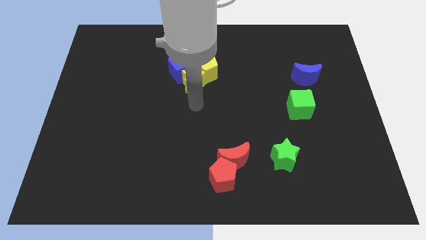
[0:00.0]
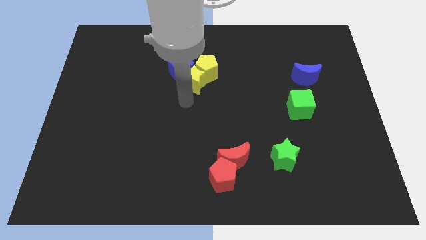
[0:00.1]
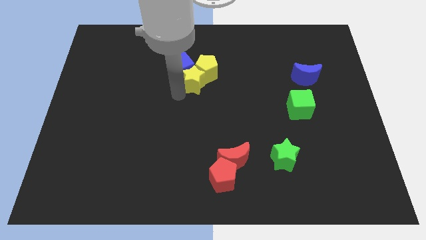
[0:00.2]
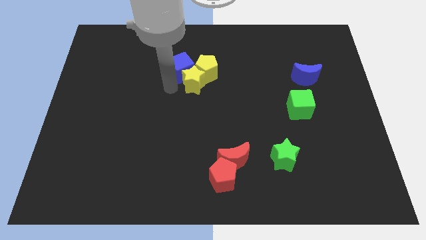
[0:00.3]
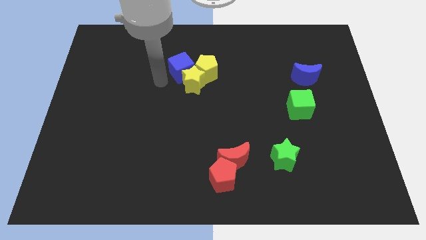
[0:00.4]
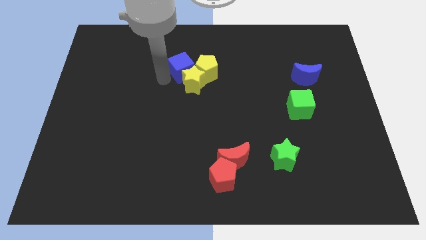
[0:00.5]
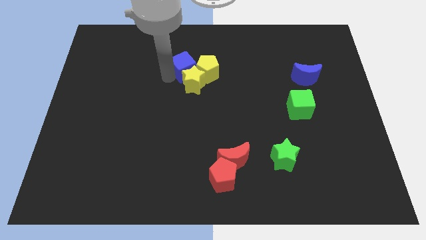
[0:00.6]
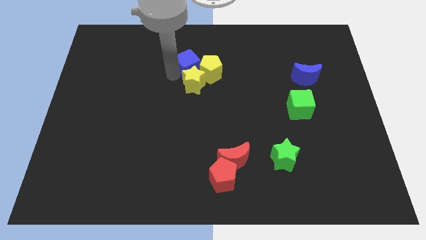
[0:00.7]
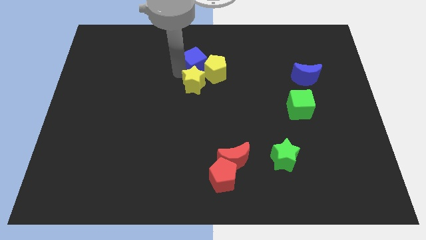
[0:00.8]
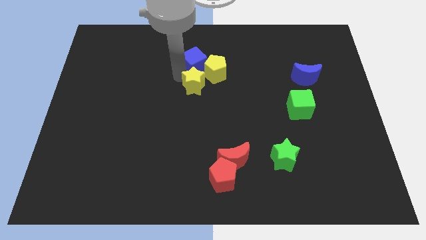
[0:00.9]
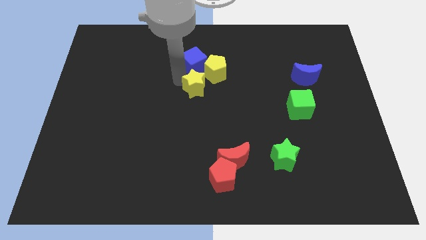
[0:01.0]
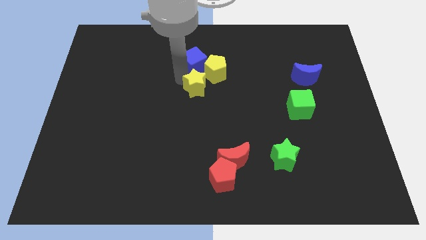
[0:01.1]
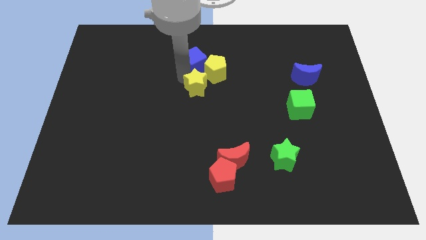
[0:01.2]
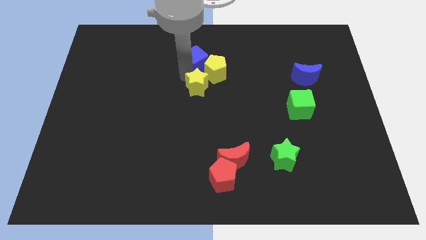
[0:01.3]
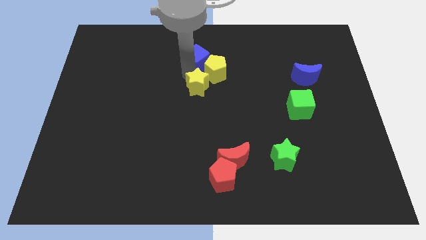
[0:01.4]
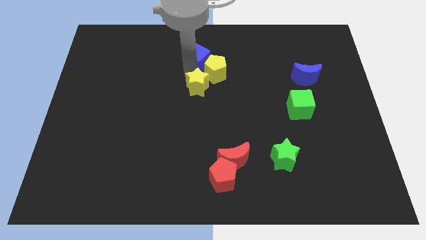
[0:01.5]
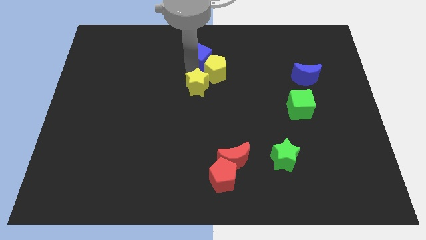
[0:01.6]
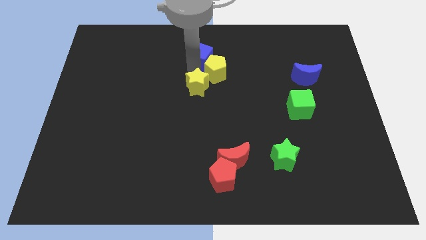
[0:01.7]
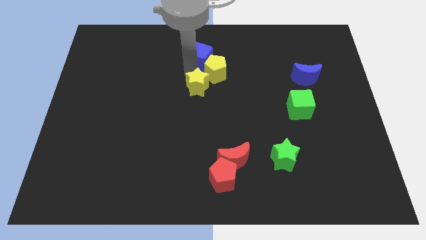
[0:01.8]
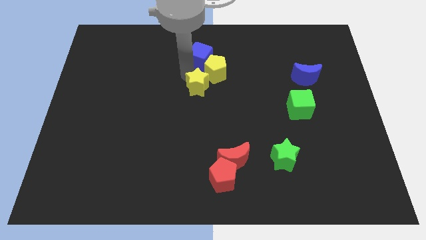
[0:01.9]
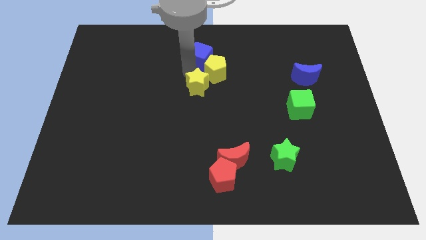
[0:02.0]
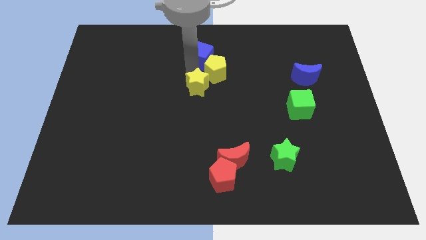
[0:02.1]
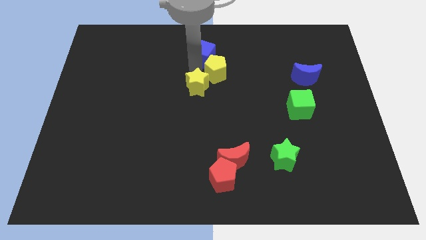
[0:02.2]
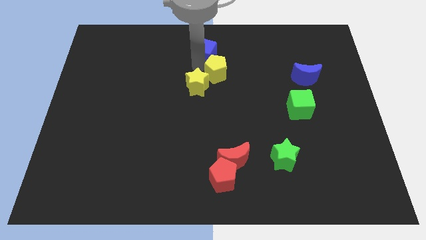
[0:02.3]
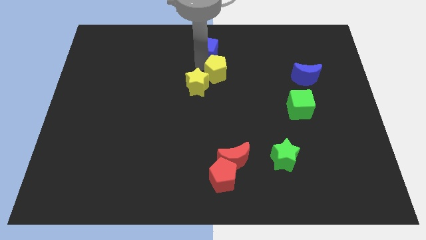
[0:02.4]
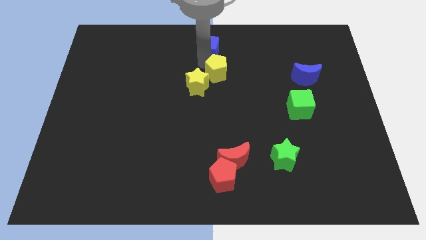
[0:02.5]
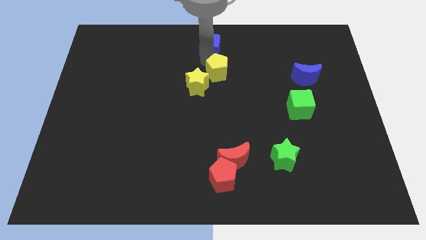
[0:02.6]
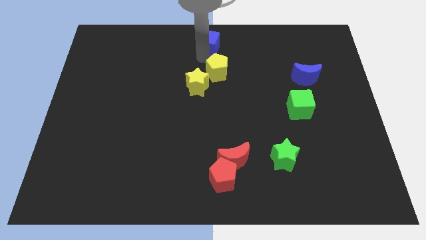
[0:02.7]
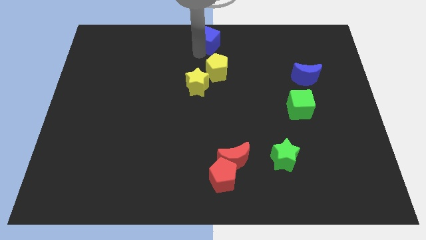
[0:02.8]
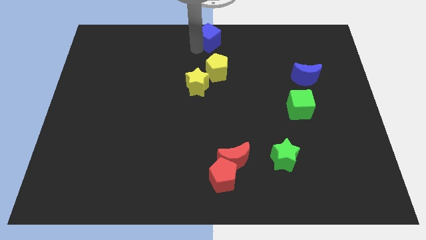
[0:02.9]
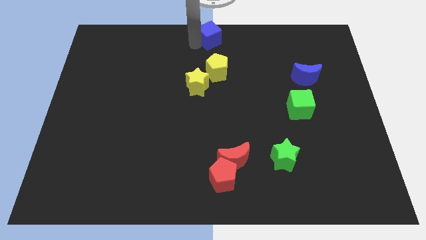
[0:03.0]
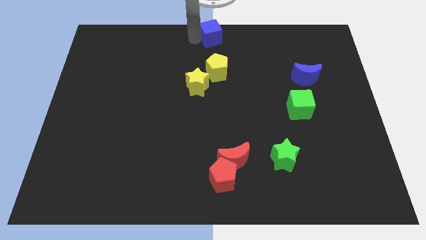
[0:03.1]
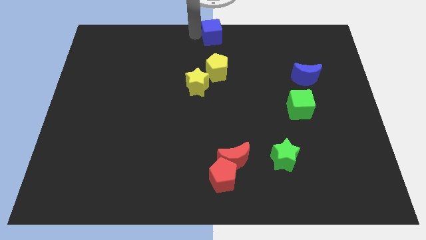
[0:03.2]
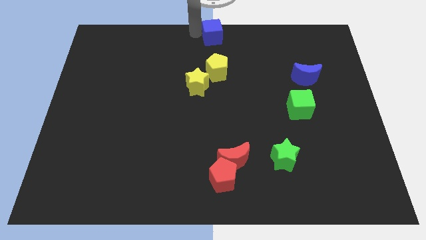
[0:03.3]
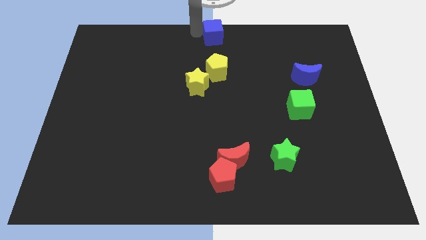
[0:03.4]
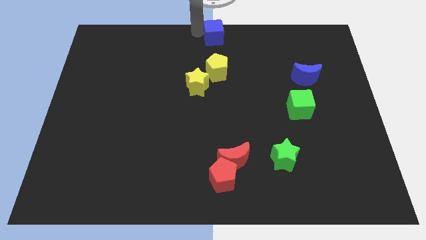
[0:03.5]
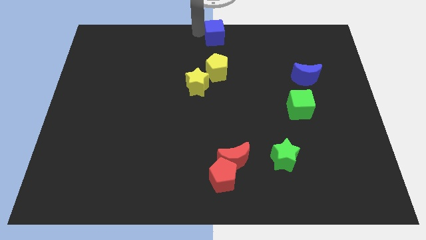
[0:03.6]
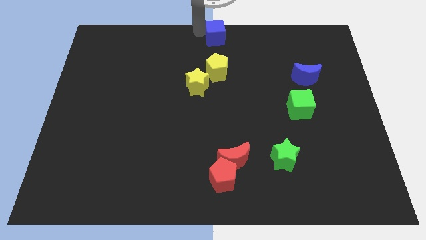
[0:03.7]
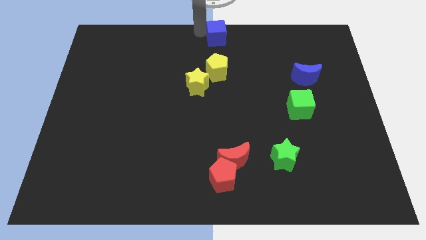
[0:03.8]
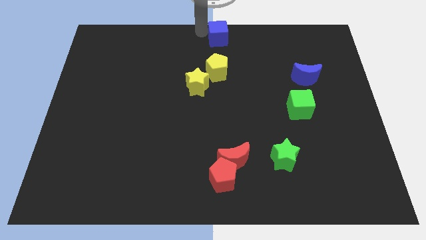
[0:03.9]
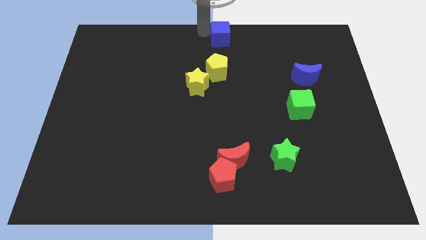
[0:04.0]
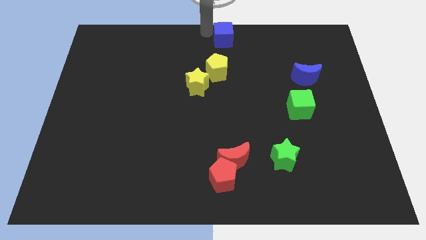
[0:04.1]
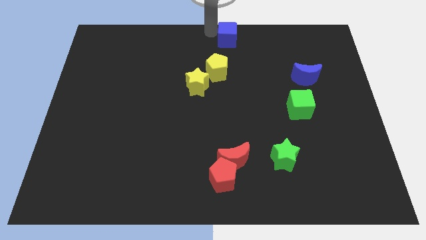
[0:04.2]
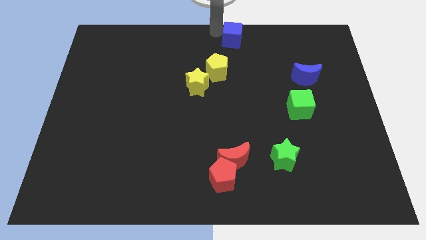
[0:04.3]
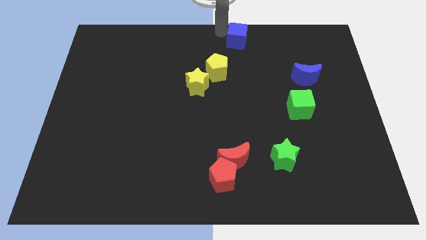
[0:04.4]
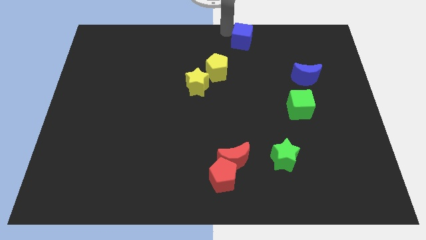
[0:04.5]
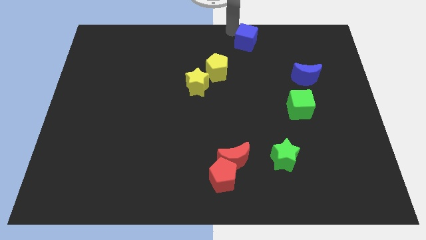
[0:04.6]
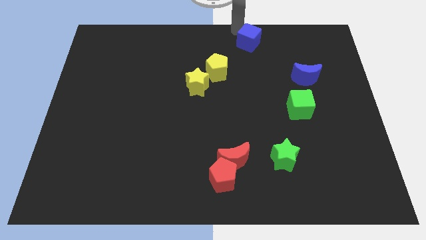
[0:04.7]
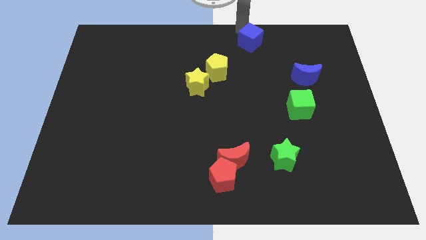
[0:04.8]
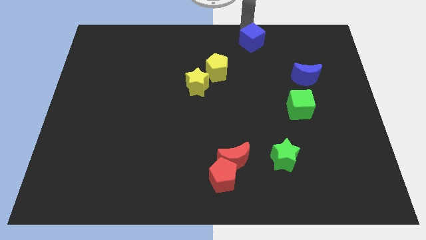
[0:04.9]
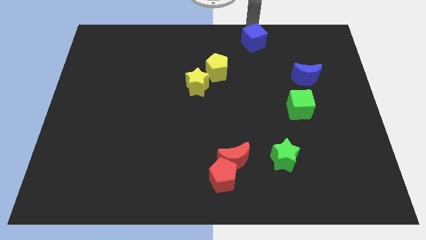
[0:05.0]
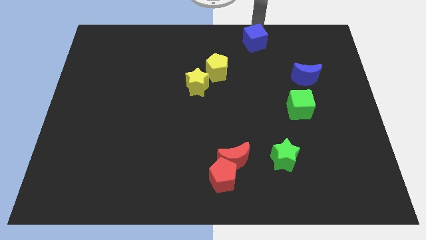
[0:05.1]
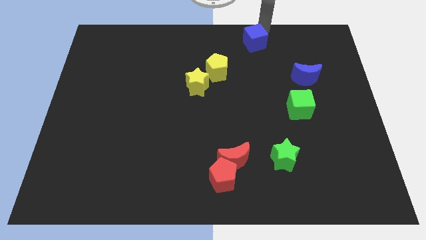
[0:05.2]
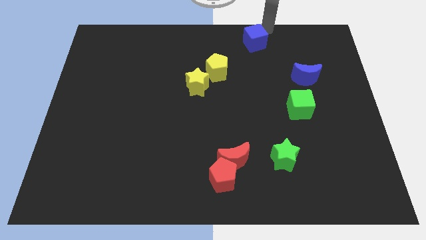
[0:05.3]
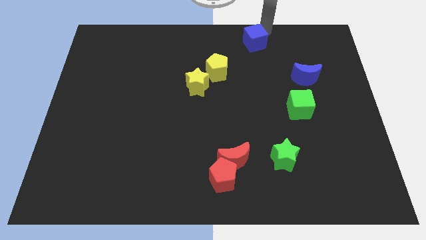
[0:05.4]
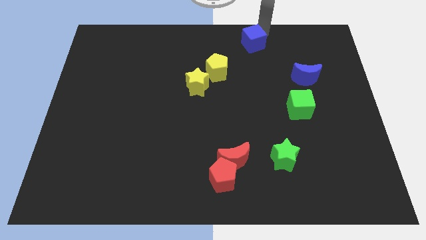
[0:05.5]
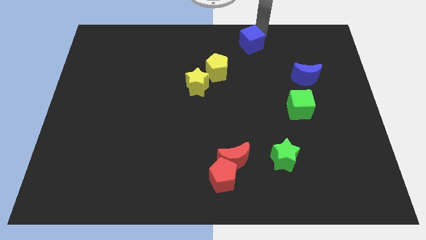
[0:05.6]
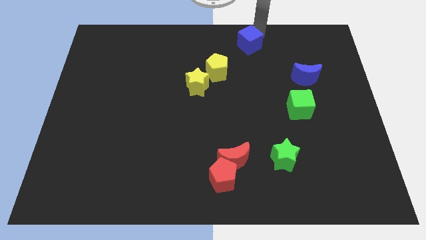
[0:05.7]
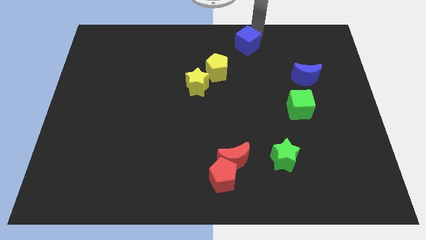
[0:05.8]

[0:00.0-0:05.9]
put the blue cube diagonally up and to the right of the yellow pentagon
